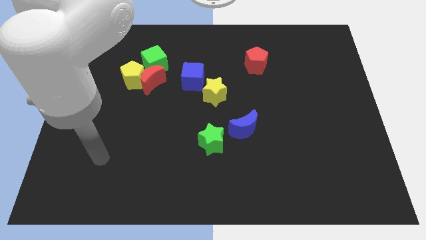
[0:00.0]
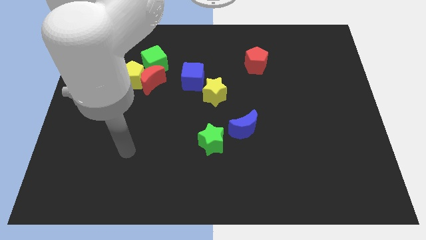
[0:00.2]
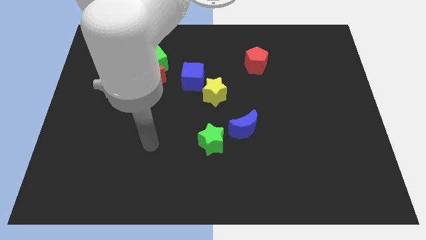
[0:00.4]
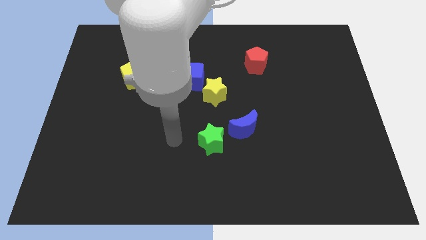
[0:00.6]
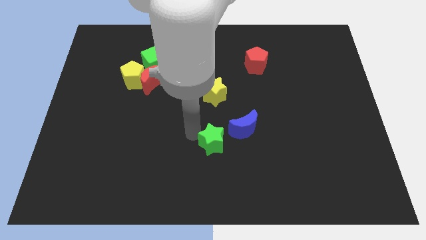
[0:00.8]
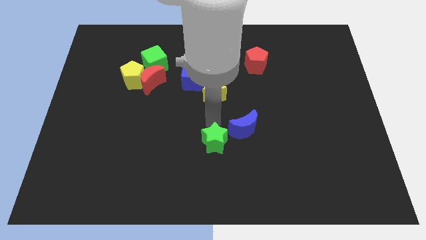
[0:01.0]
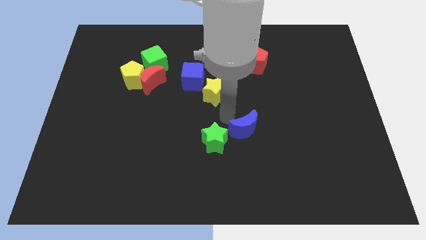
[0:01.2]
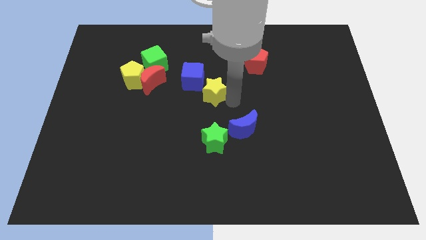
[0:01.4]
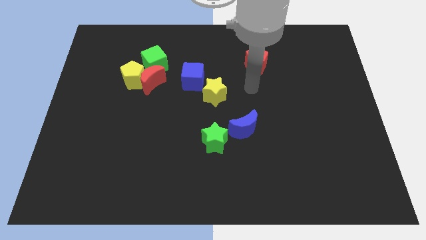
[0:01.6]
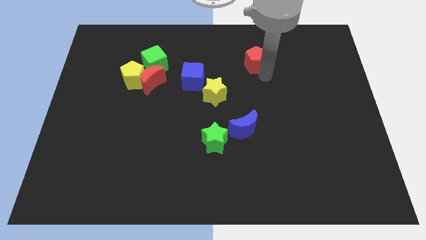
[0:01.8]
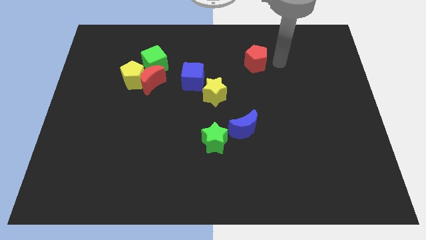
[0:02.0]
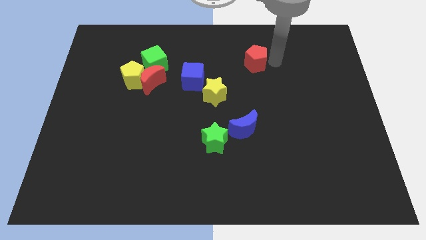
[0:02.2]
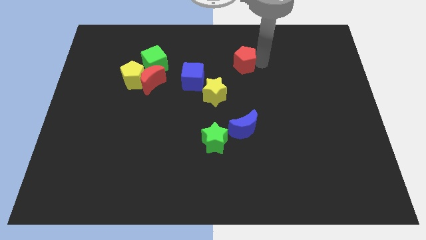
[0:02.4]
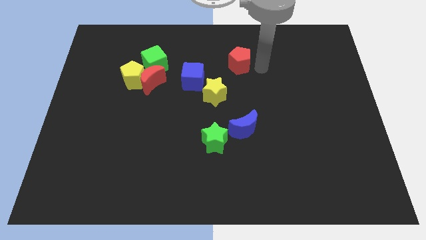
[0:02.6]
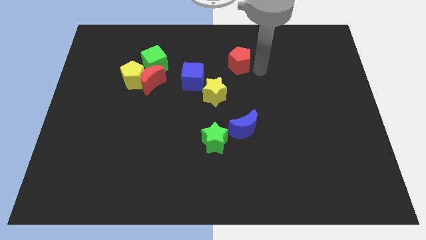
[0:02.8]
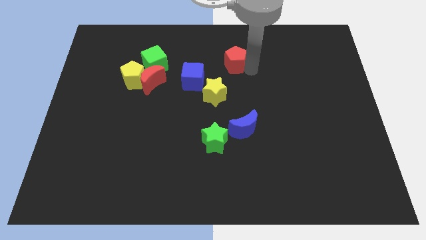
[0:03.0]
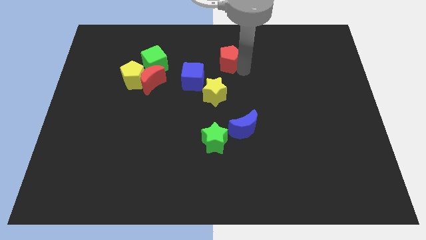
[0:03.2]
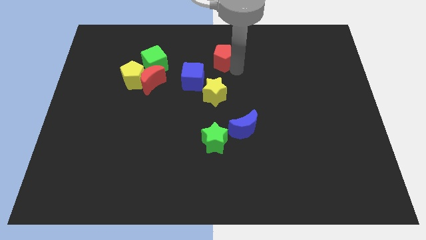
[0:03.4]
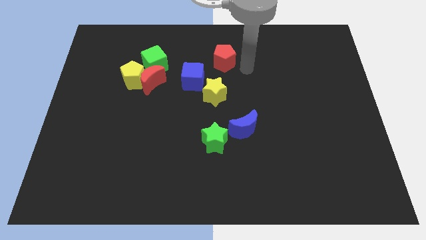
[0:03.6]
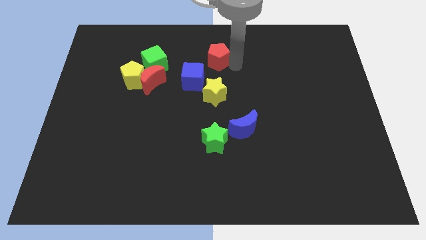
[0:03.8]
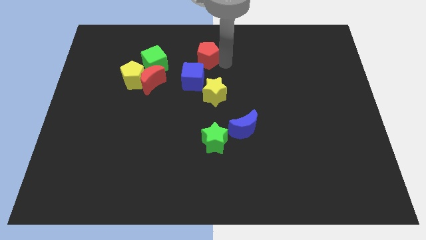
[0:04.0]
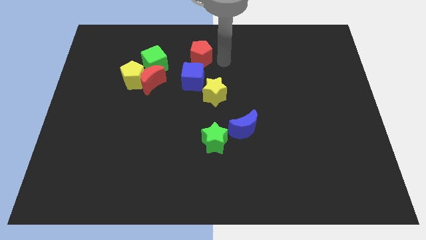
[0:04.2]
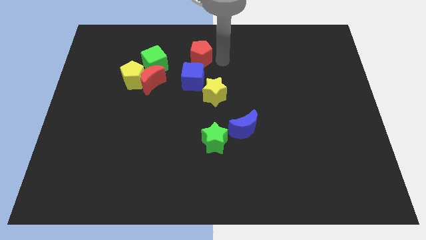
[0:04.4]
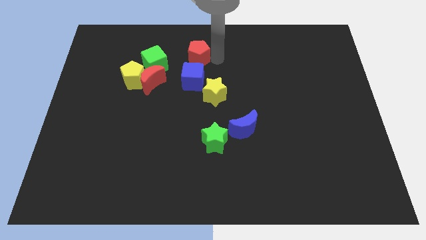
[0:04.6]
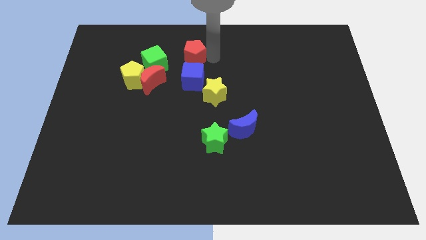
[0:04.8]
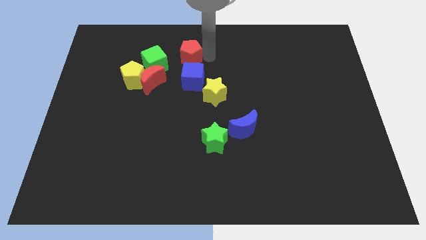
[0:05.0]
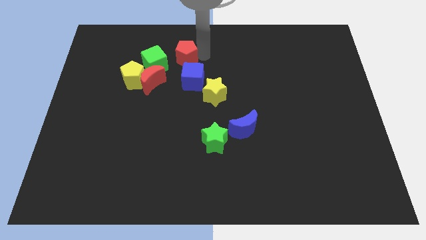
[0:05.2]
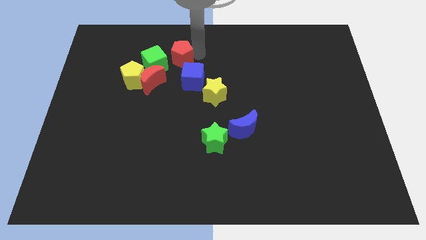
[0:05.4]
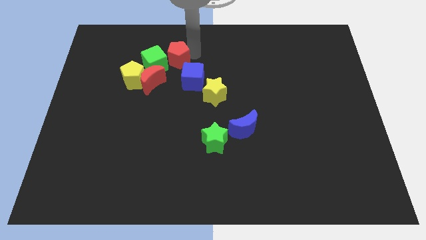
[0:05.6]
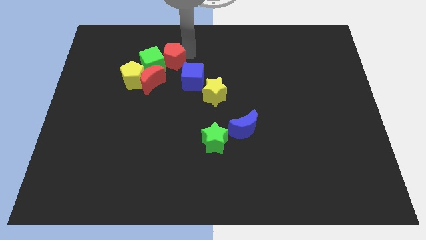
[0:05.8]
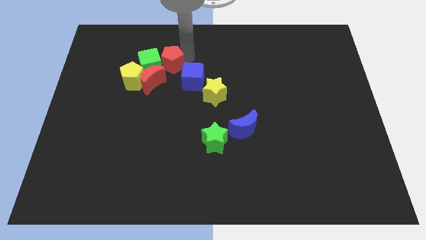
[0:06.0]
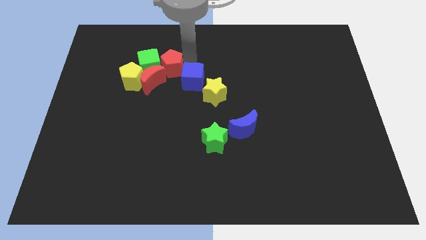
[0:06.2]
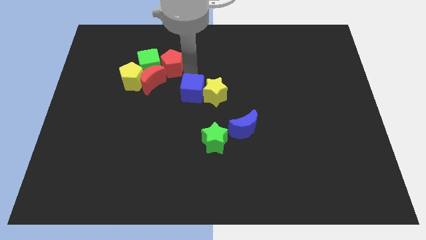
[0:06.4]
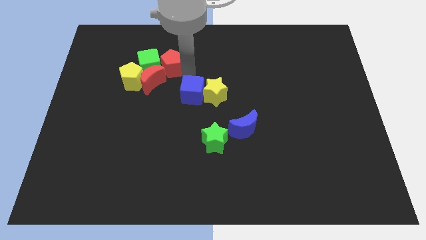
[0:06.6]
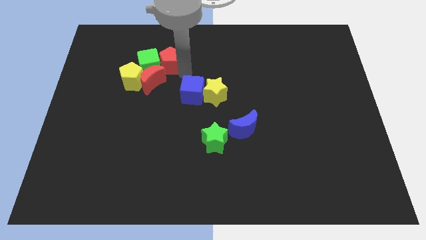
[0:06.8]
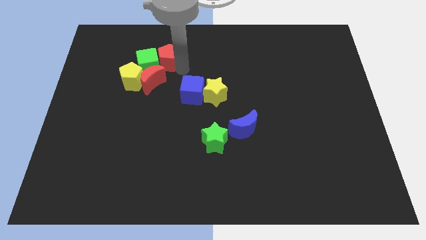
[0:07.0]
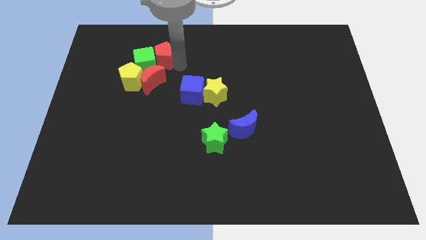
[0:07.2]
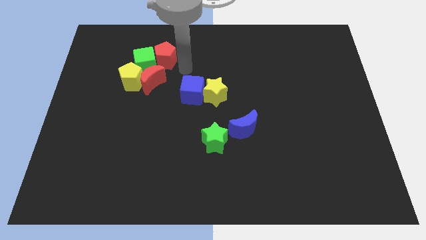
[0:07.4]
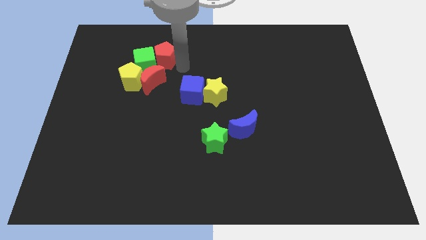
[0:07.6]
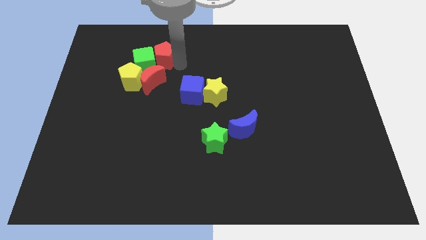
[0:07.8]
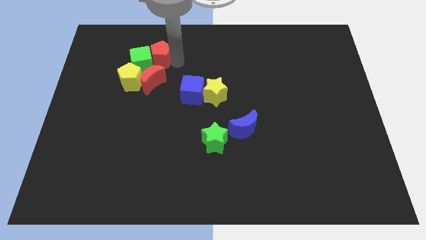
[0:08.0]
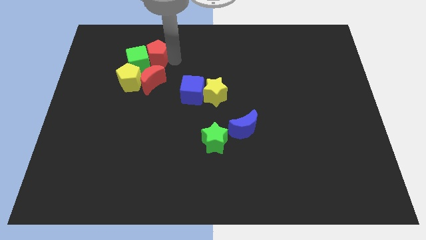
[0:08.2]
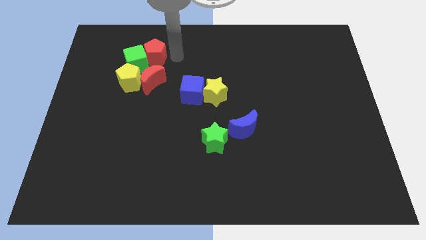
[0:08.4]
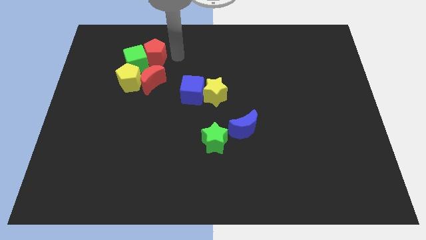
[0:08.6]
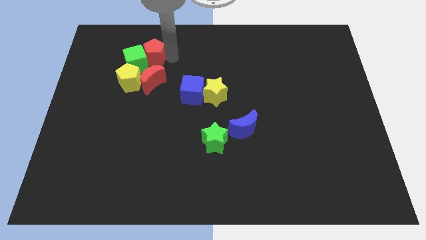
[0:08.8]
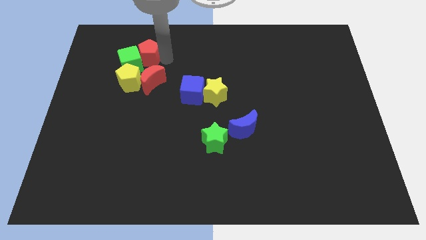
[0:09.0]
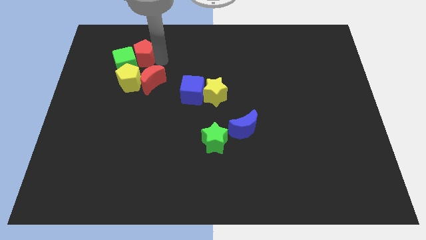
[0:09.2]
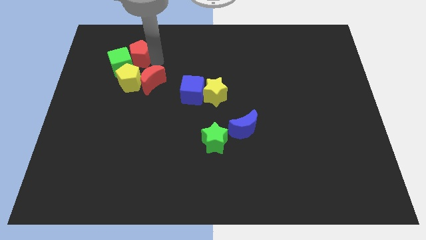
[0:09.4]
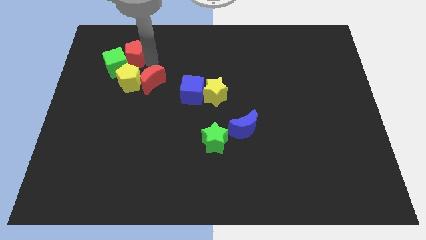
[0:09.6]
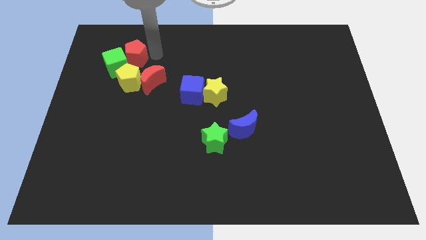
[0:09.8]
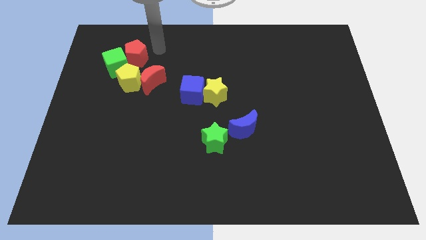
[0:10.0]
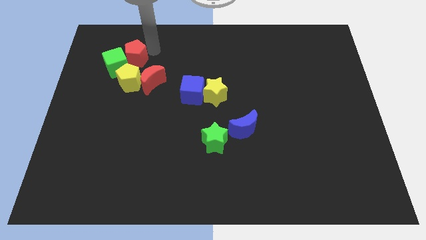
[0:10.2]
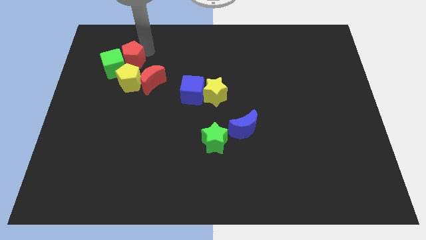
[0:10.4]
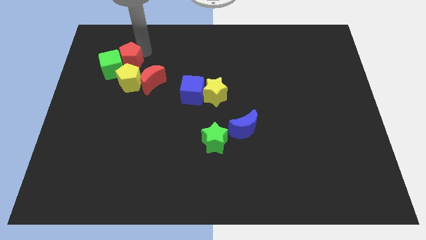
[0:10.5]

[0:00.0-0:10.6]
put the red pentagon to the top left of the yellow pentagon

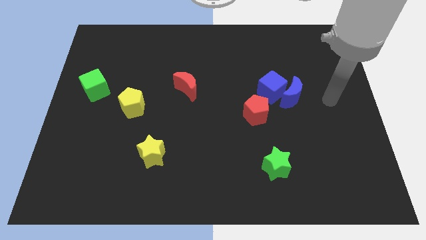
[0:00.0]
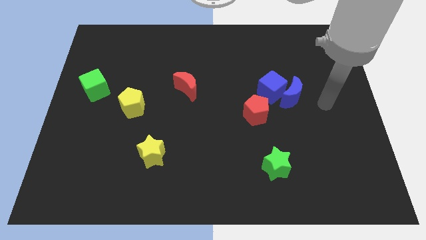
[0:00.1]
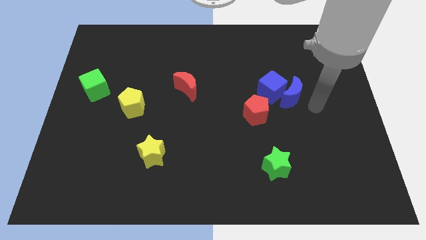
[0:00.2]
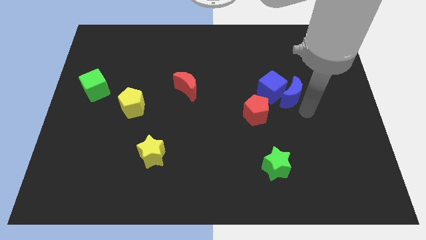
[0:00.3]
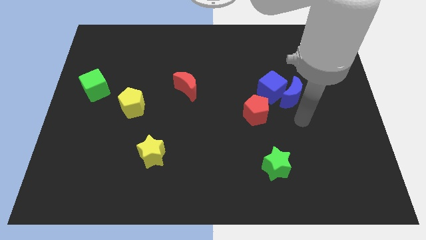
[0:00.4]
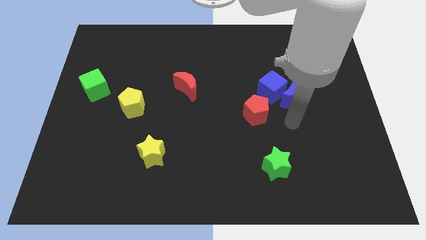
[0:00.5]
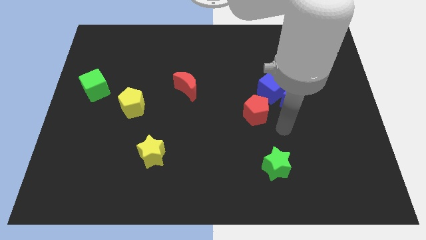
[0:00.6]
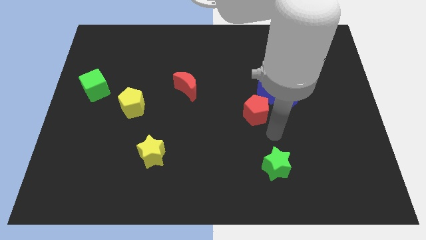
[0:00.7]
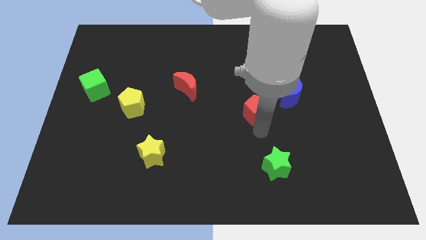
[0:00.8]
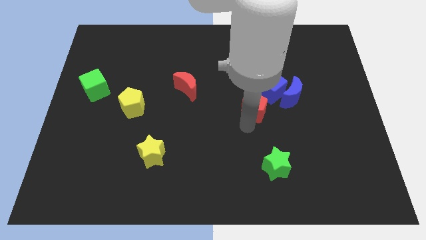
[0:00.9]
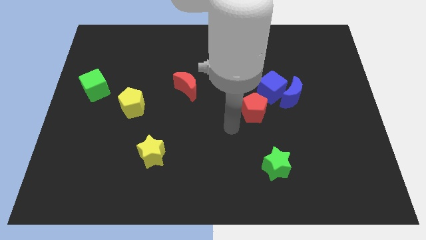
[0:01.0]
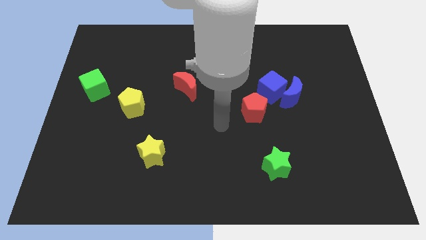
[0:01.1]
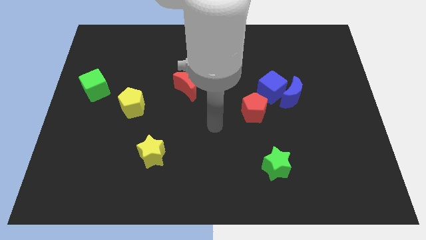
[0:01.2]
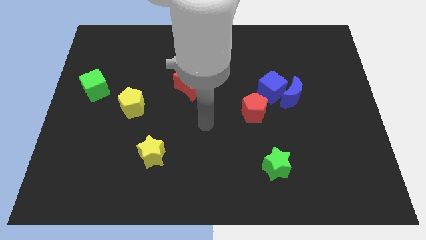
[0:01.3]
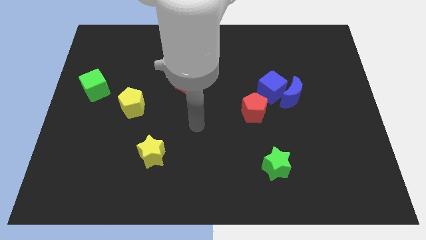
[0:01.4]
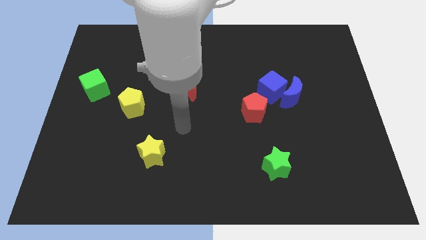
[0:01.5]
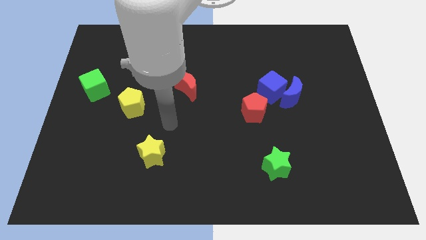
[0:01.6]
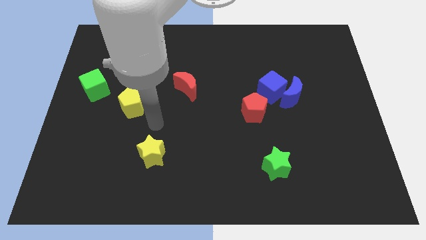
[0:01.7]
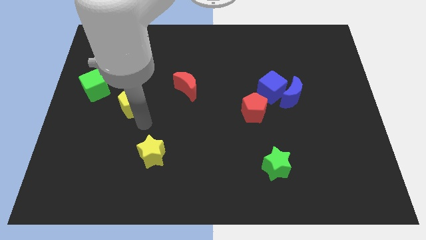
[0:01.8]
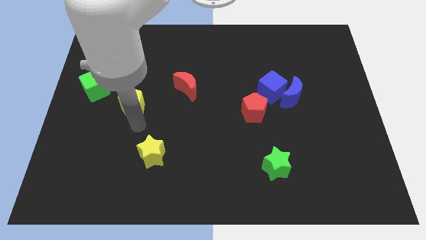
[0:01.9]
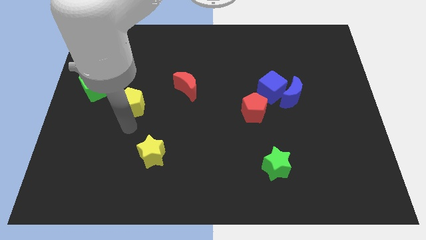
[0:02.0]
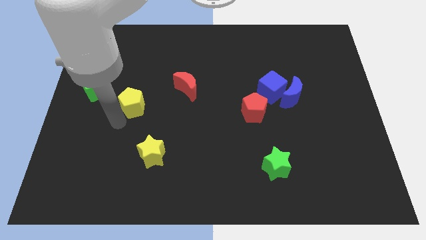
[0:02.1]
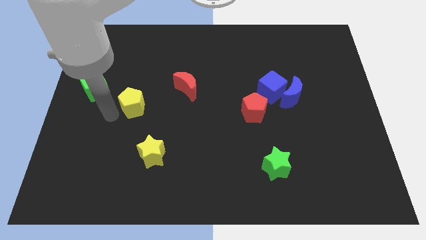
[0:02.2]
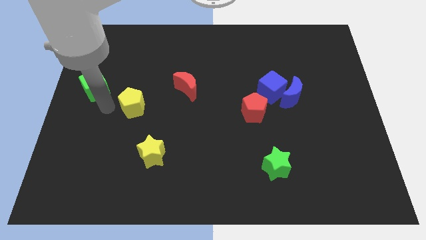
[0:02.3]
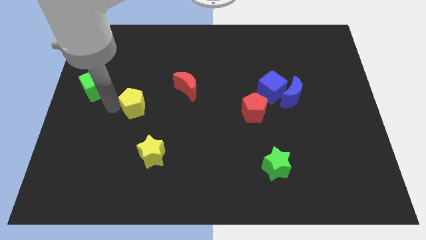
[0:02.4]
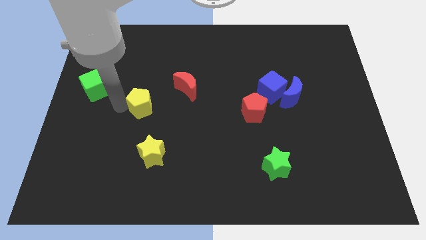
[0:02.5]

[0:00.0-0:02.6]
put the yellow pentagon to the bottom left side of the red moon
